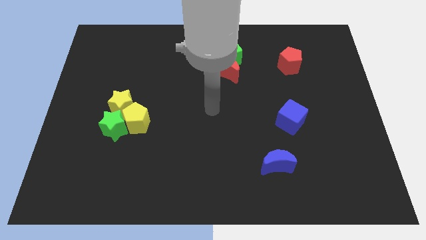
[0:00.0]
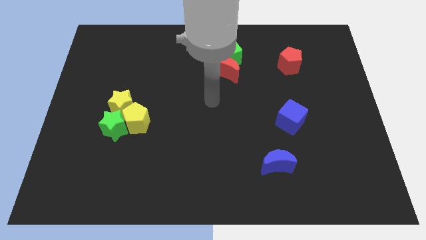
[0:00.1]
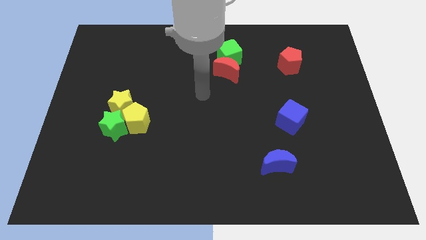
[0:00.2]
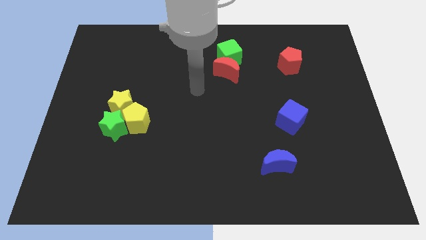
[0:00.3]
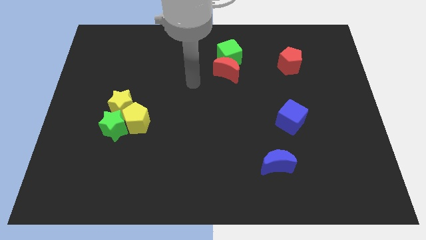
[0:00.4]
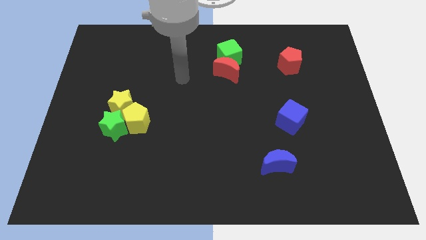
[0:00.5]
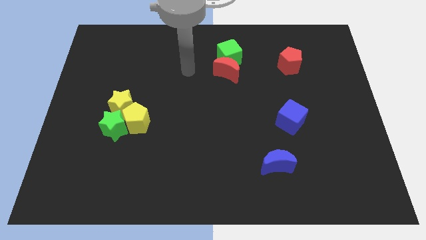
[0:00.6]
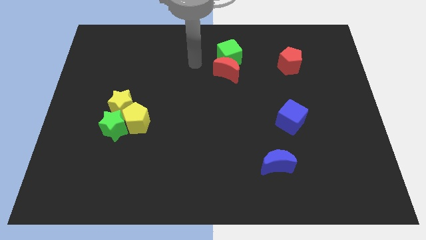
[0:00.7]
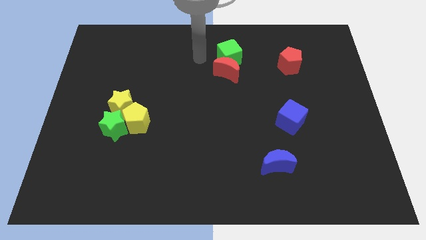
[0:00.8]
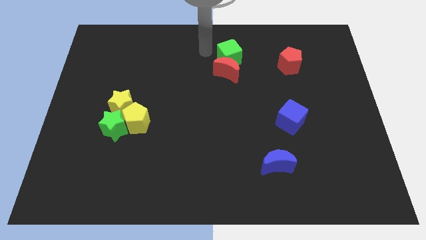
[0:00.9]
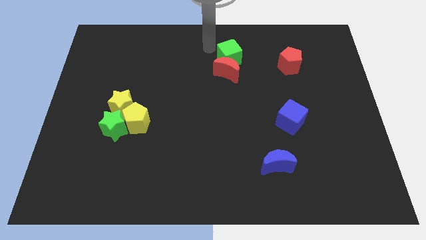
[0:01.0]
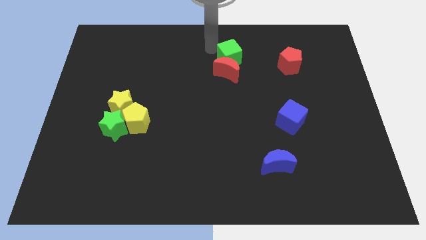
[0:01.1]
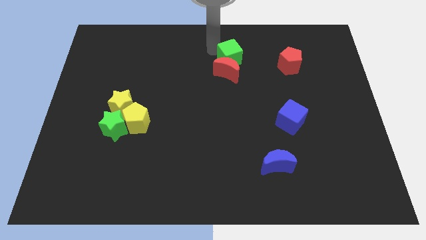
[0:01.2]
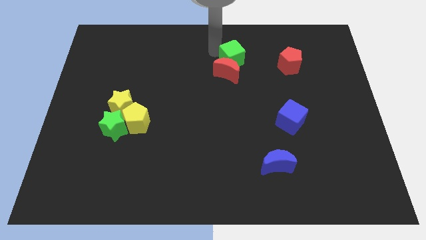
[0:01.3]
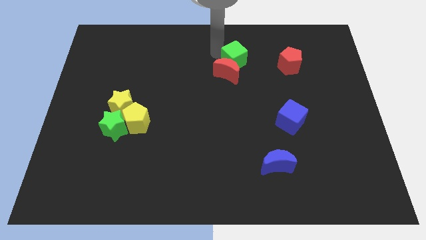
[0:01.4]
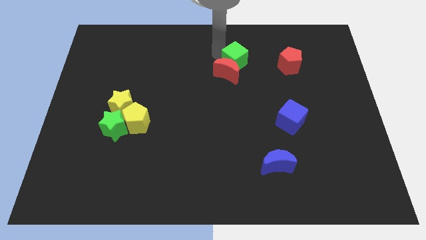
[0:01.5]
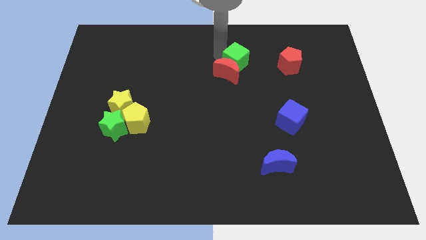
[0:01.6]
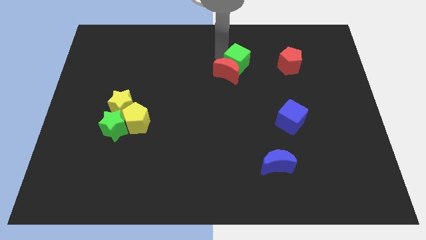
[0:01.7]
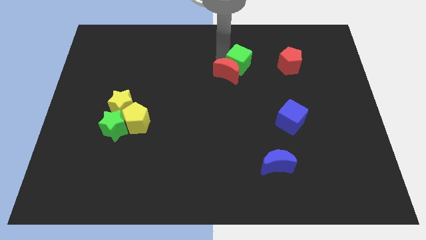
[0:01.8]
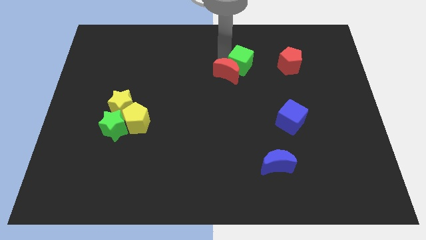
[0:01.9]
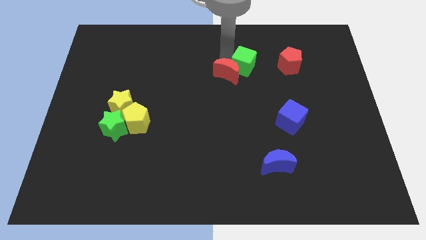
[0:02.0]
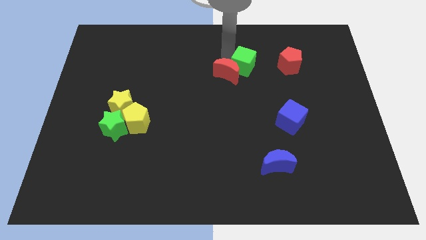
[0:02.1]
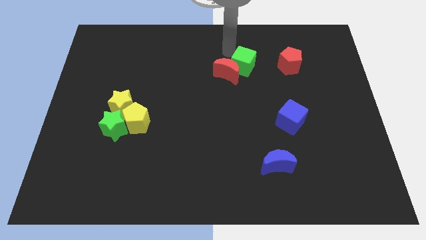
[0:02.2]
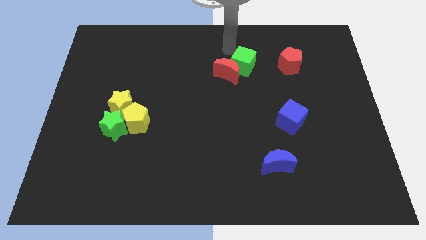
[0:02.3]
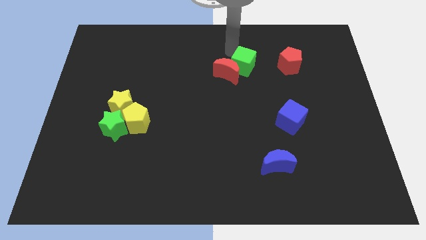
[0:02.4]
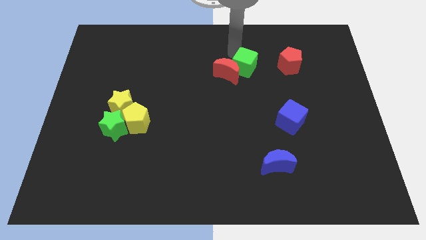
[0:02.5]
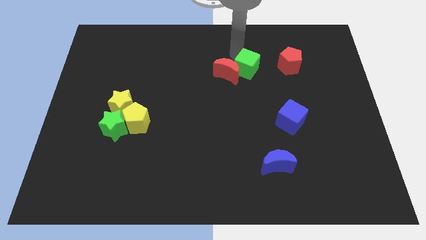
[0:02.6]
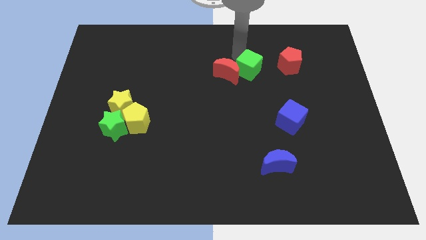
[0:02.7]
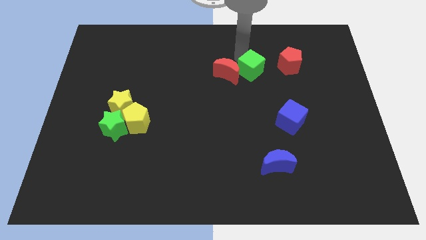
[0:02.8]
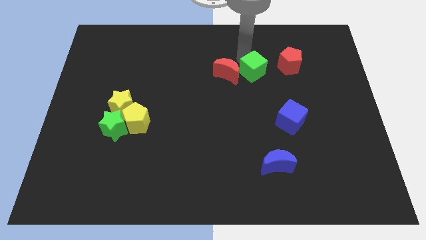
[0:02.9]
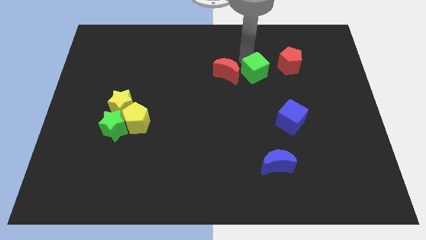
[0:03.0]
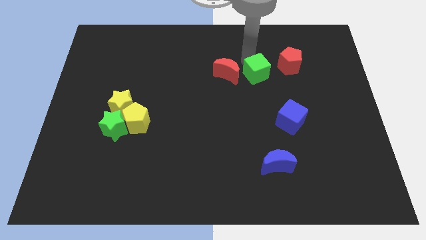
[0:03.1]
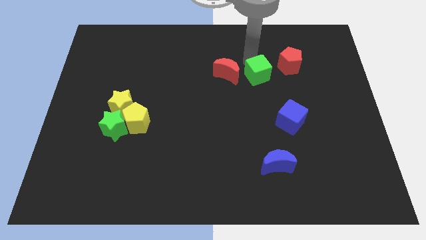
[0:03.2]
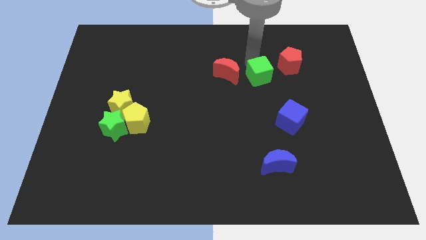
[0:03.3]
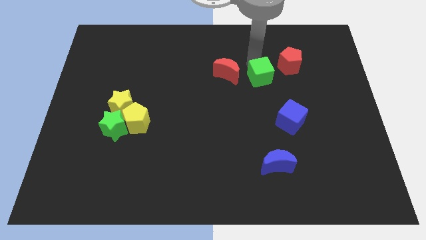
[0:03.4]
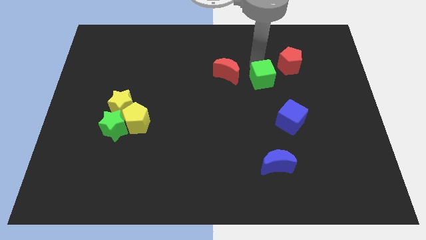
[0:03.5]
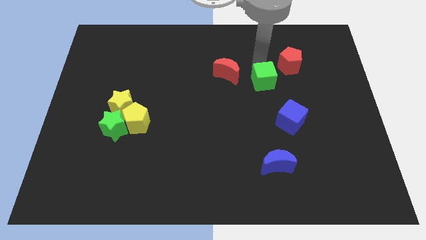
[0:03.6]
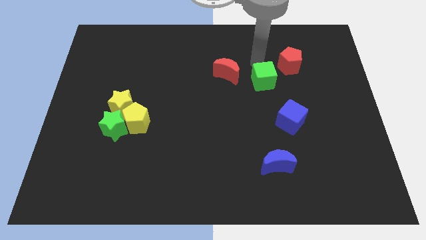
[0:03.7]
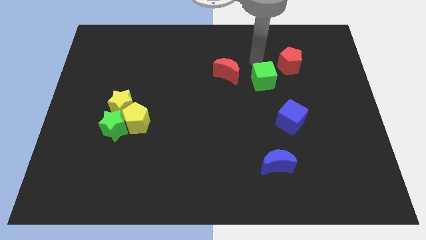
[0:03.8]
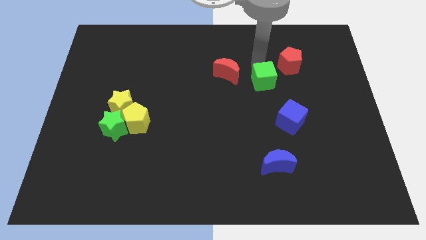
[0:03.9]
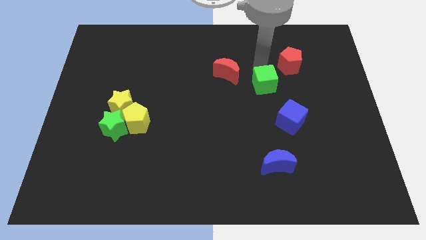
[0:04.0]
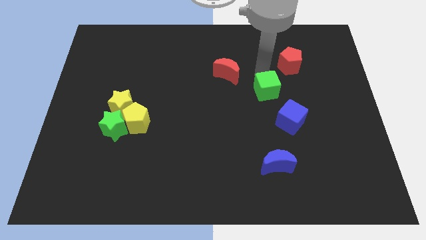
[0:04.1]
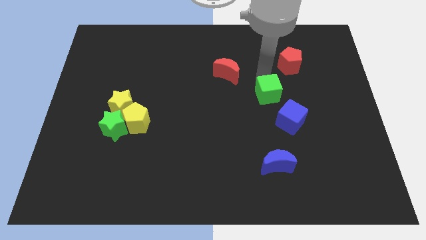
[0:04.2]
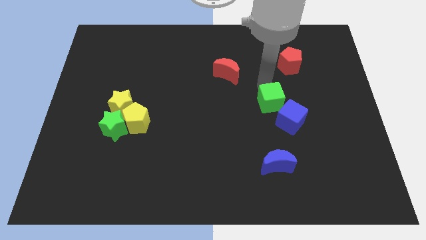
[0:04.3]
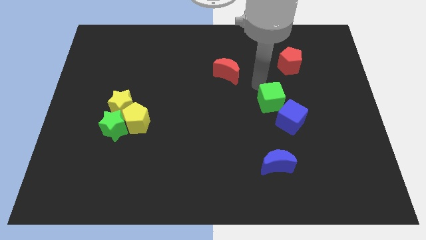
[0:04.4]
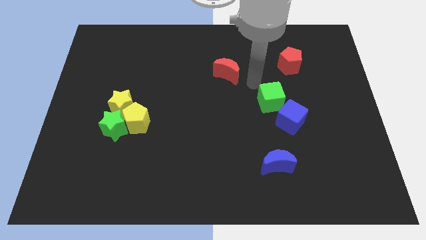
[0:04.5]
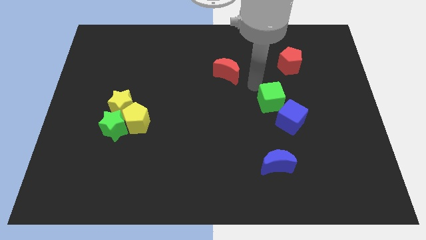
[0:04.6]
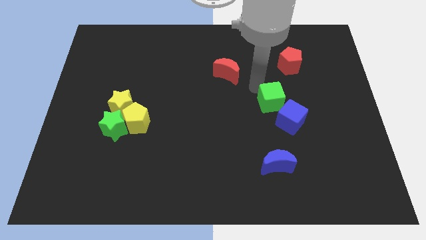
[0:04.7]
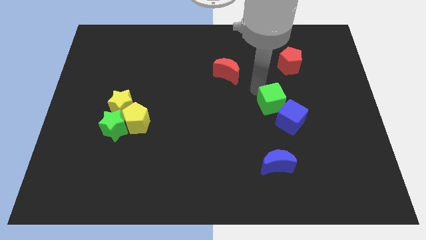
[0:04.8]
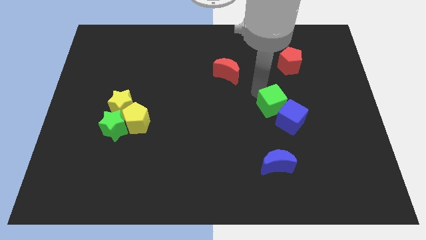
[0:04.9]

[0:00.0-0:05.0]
move the green cube close to the blue cube
